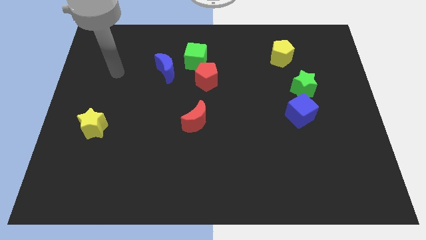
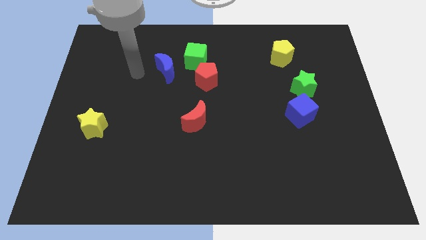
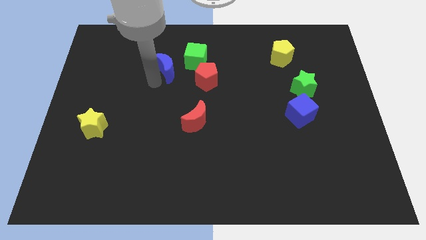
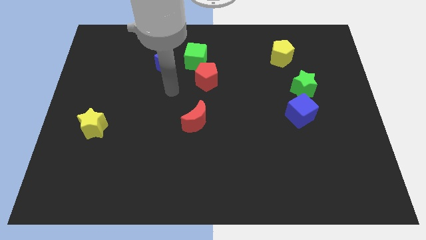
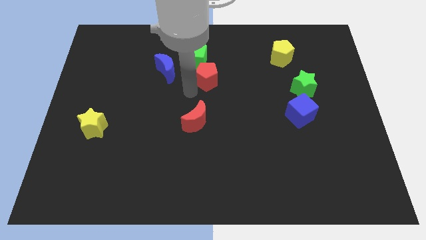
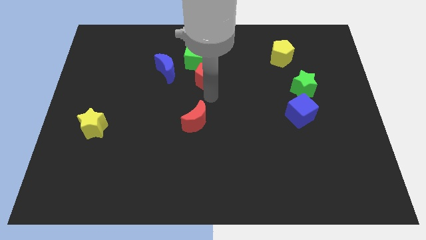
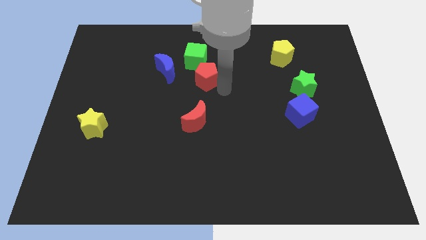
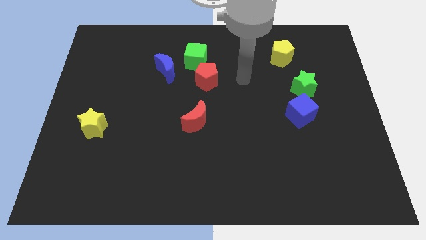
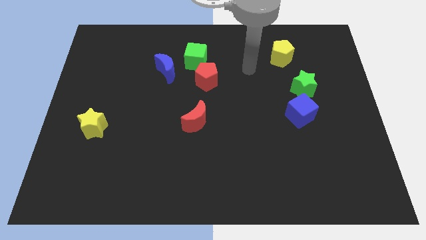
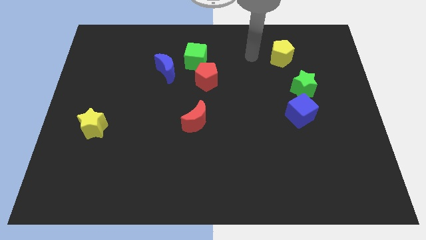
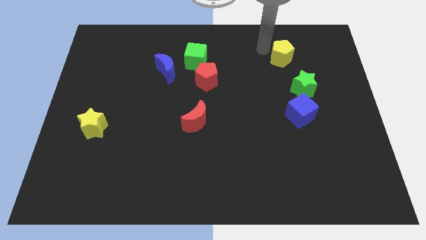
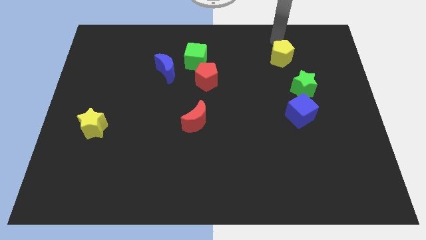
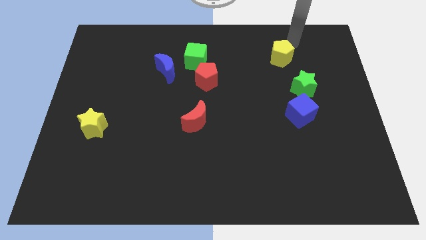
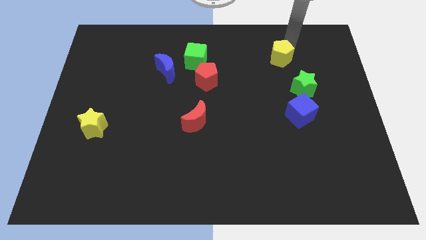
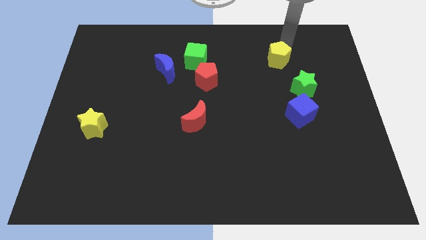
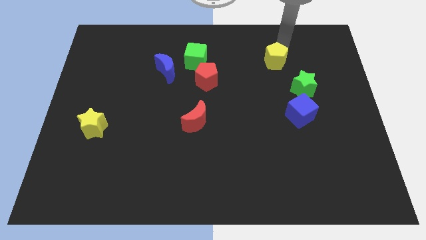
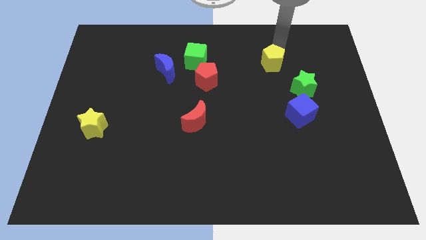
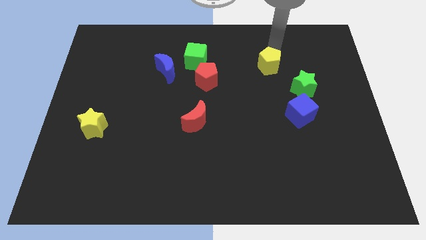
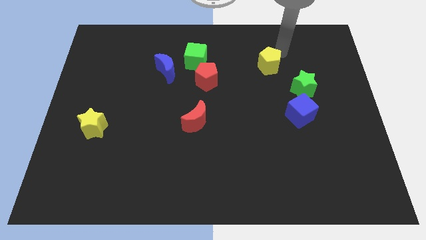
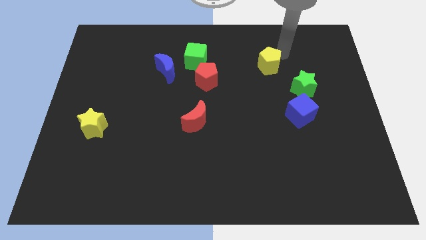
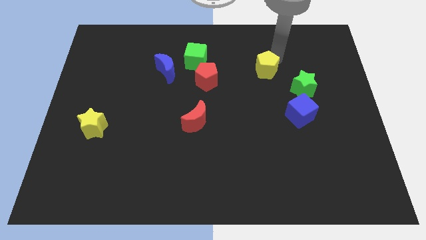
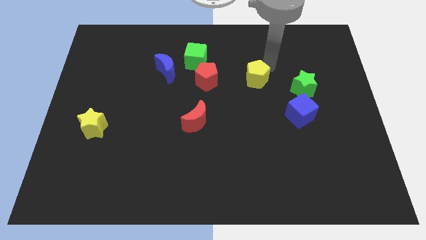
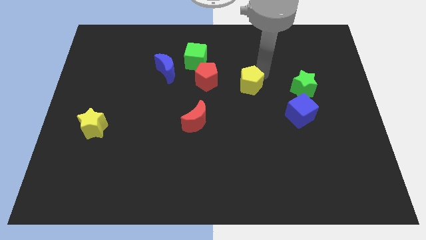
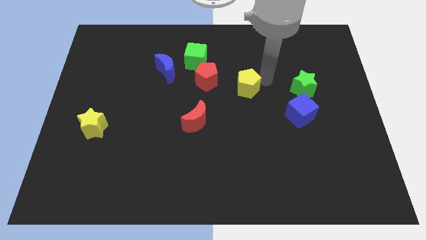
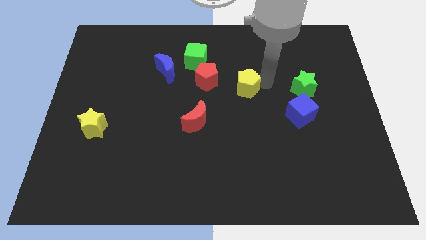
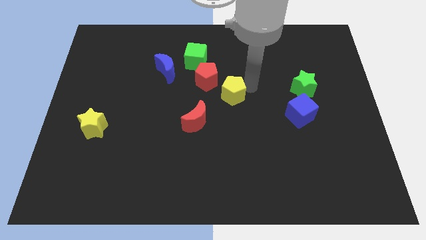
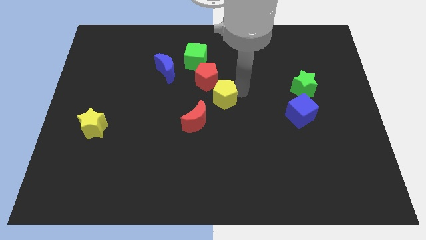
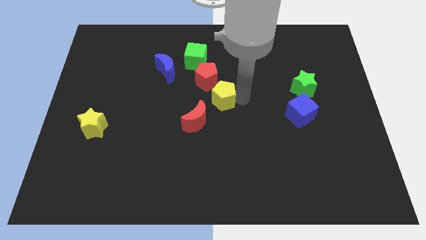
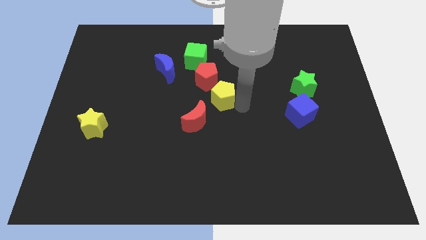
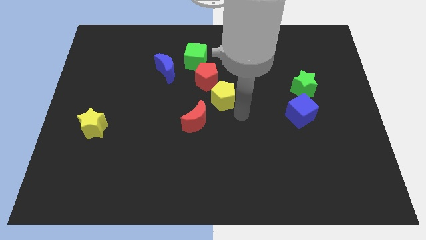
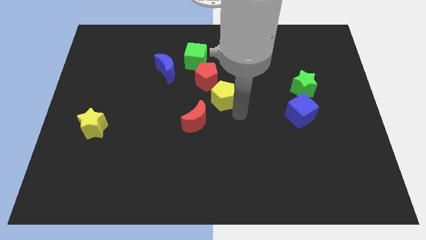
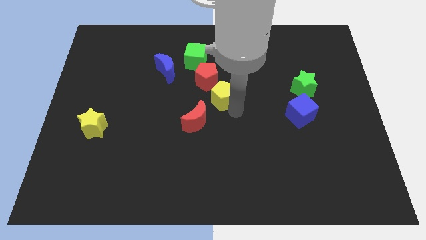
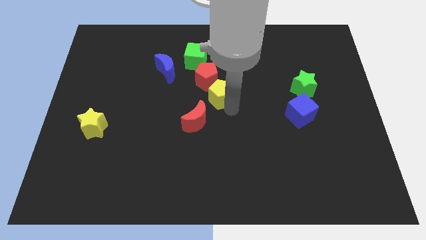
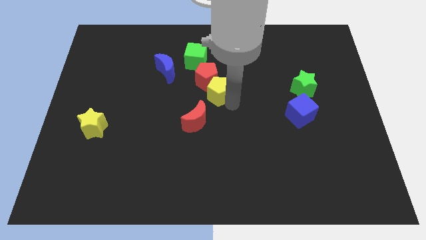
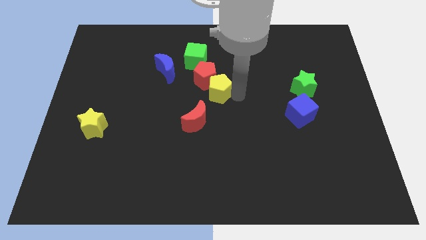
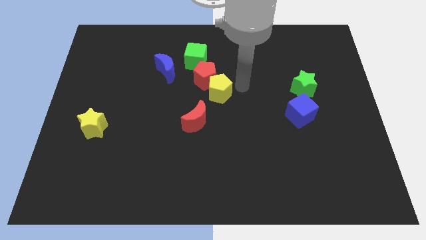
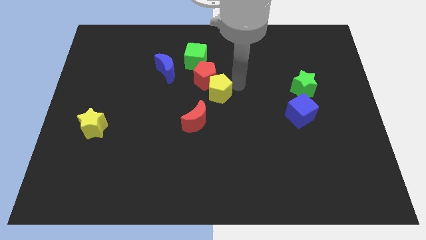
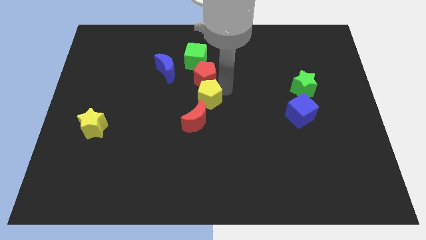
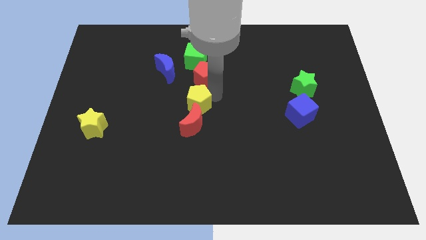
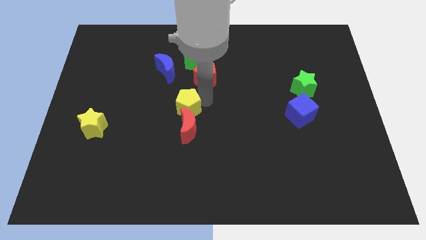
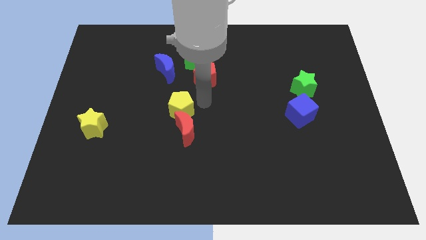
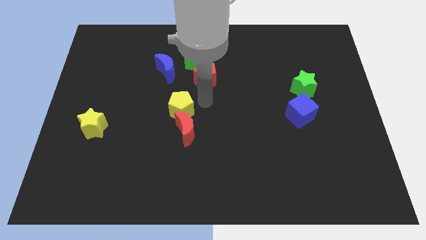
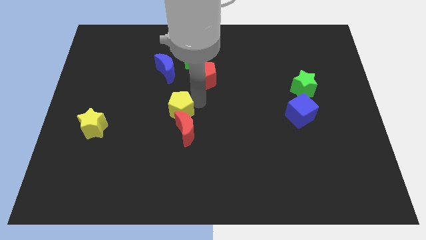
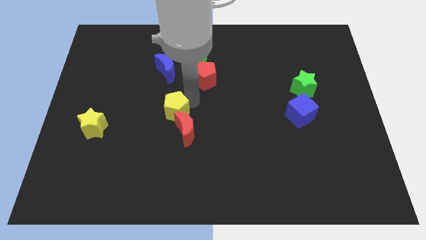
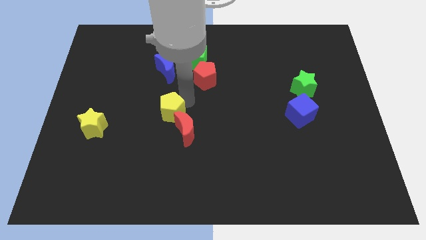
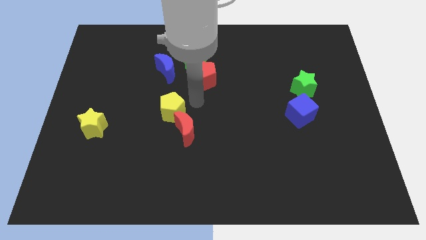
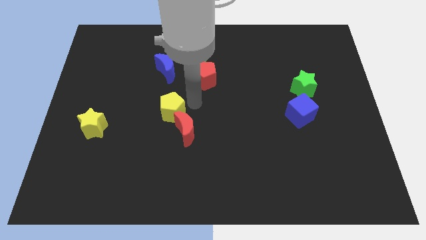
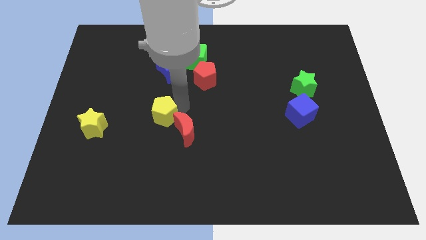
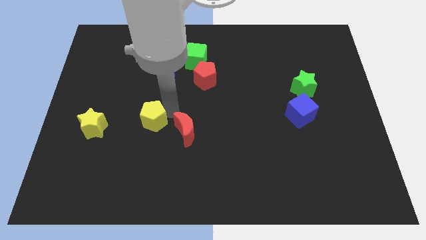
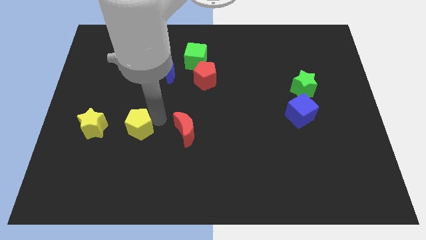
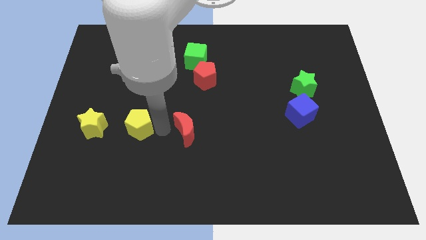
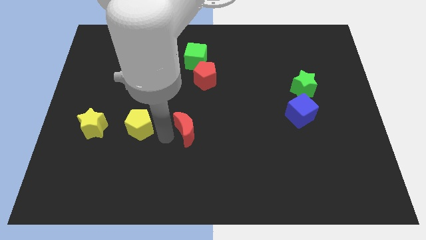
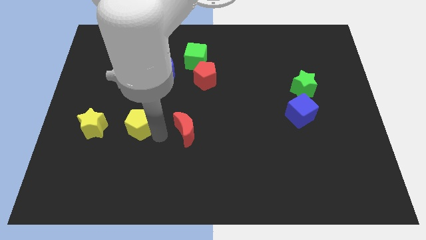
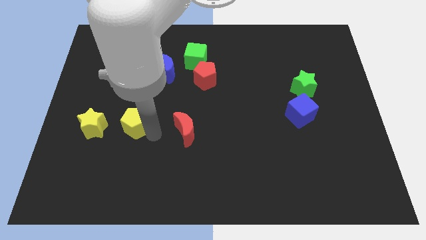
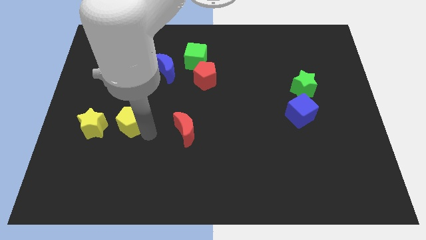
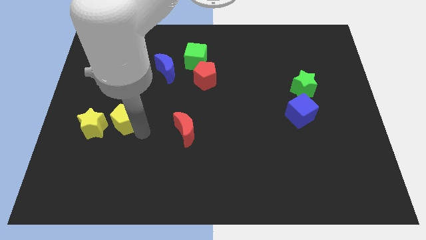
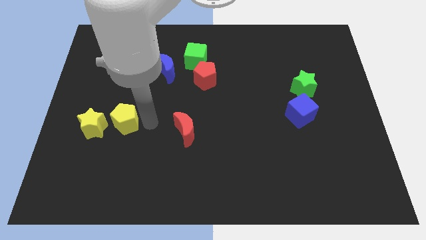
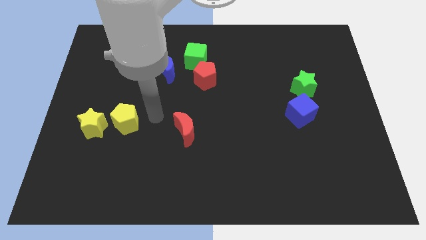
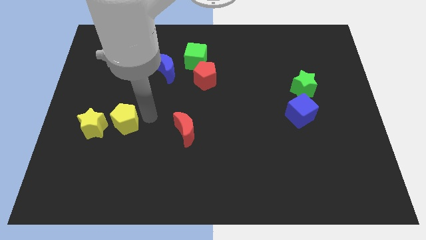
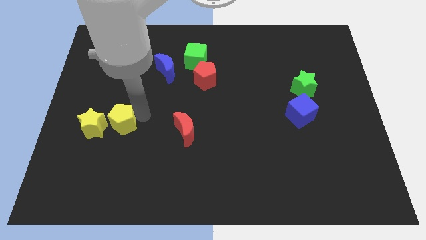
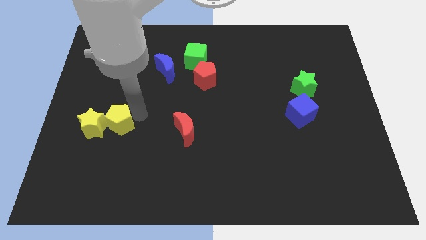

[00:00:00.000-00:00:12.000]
slide the yellow pentagon close to the yellow star

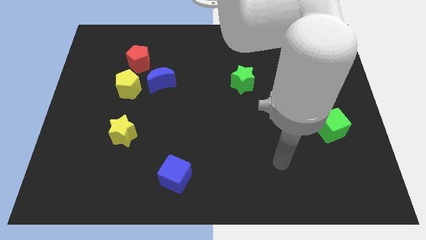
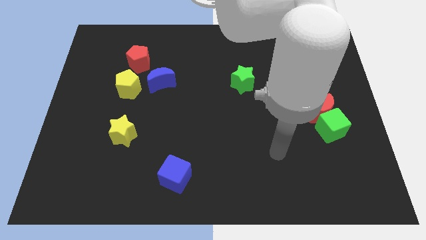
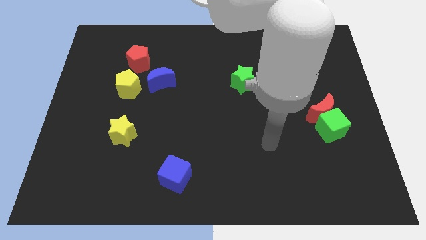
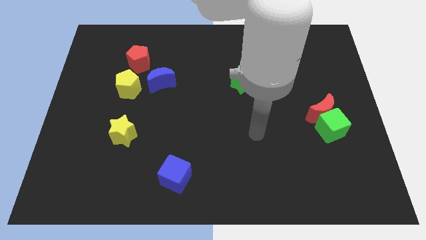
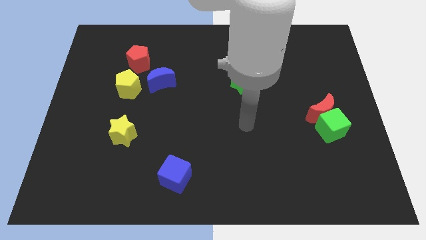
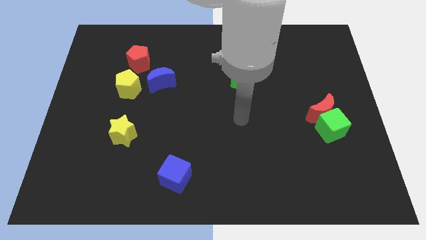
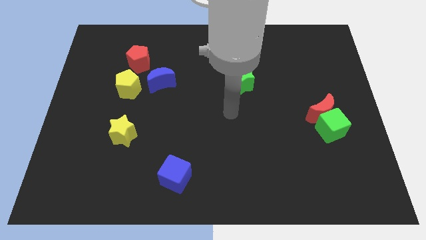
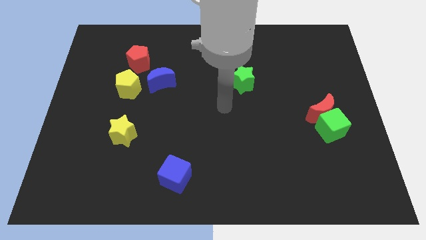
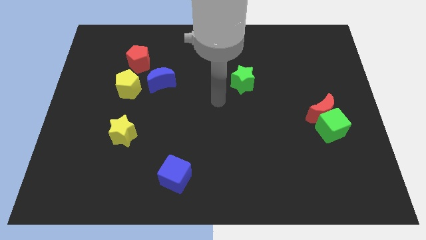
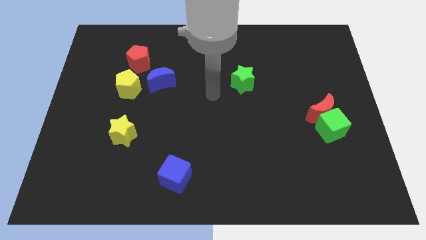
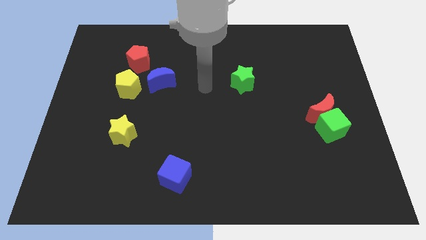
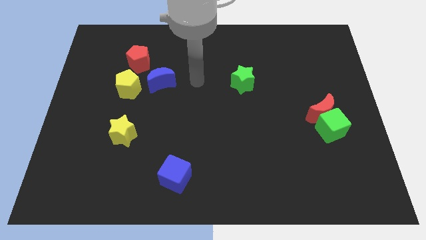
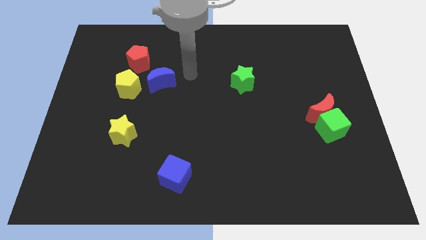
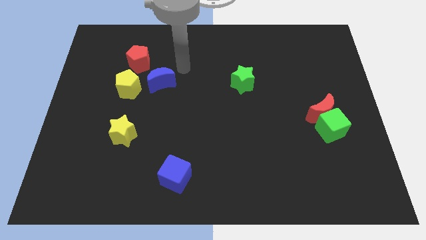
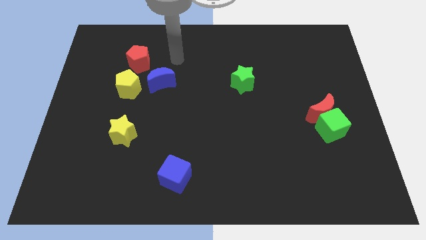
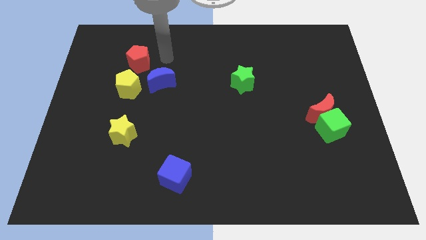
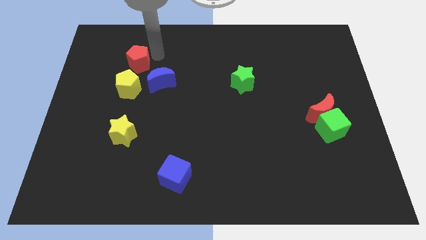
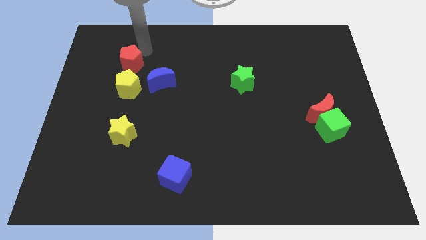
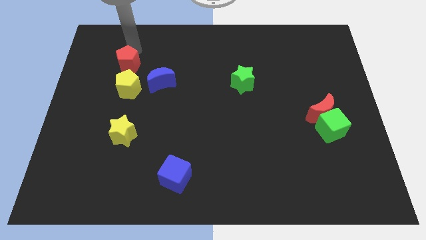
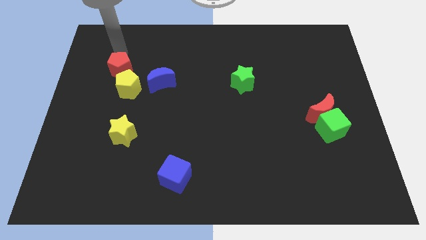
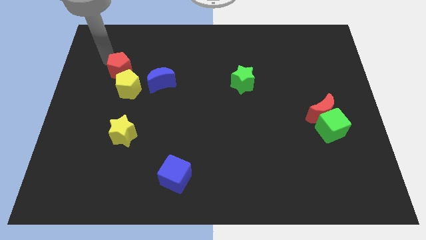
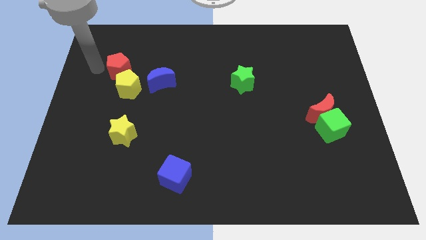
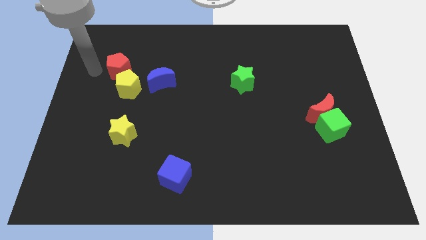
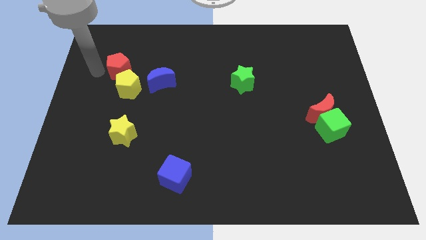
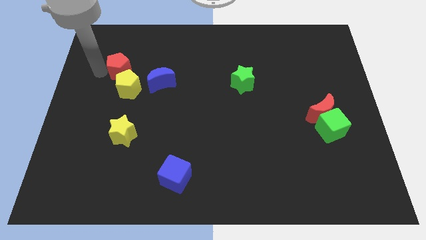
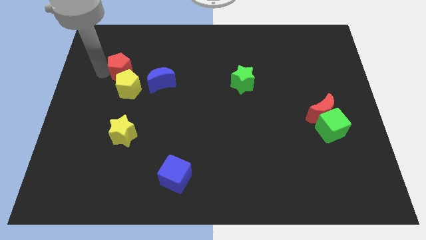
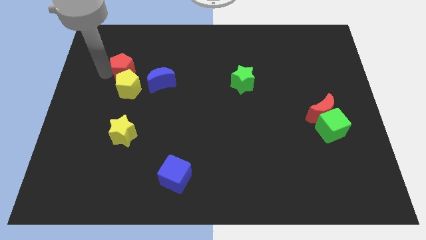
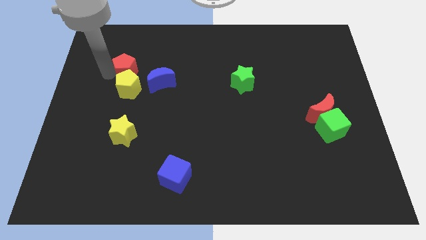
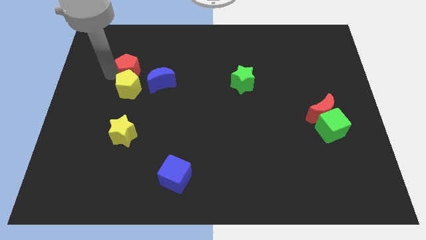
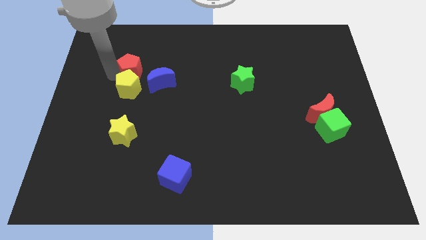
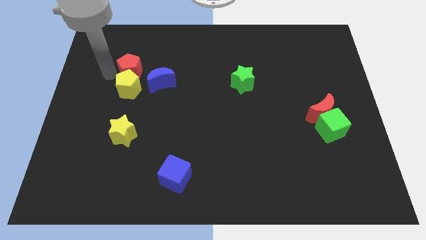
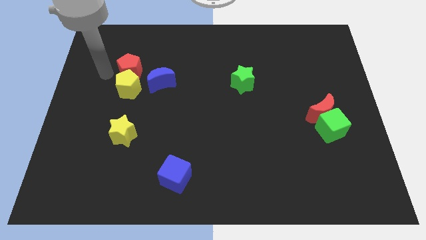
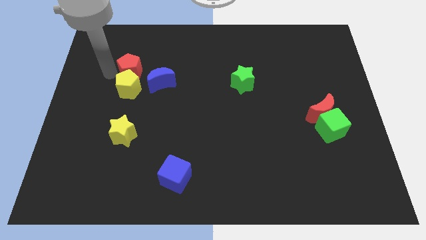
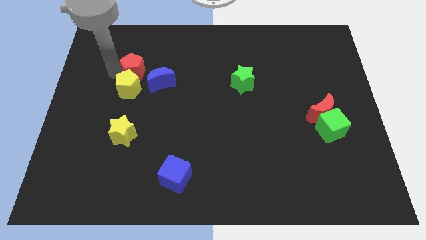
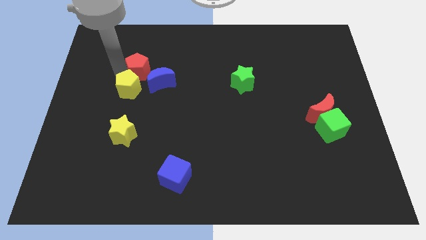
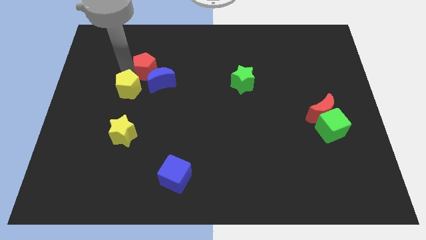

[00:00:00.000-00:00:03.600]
put the red pentagon next to the blue moon
